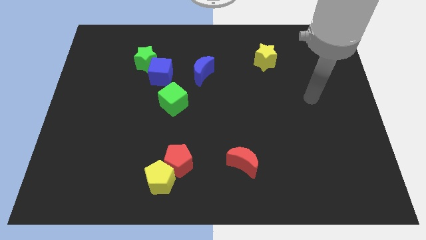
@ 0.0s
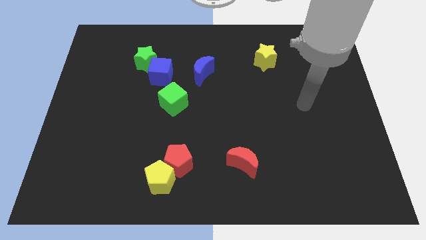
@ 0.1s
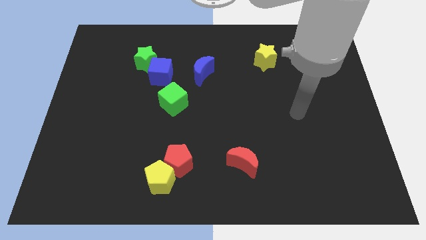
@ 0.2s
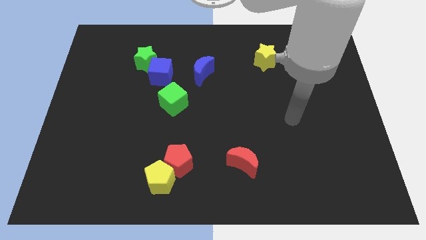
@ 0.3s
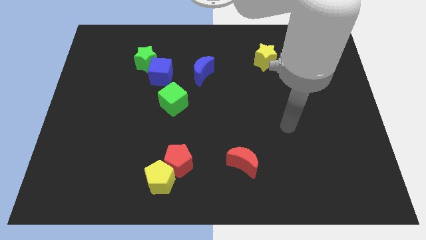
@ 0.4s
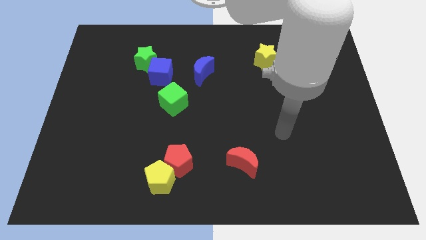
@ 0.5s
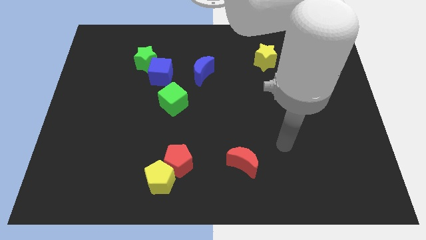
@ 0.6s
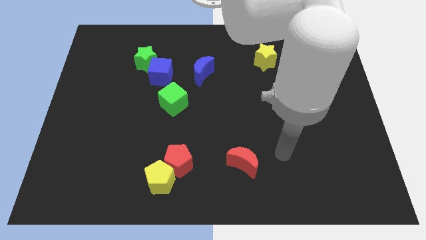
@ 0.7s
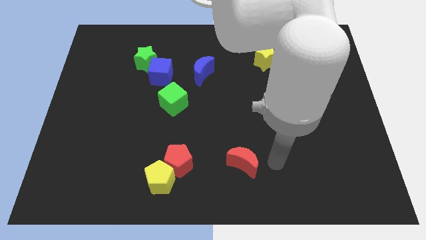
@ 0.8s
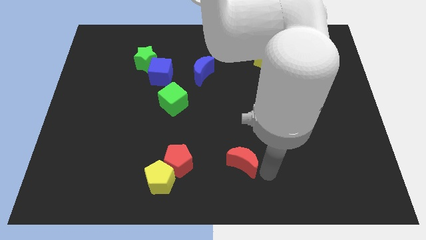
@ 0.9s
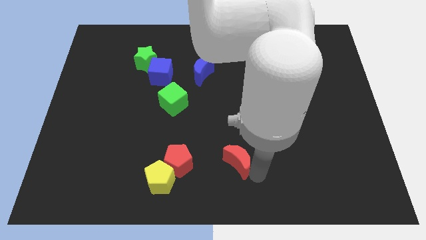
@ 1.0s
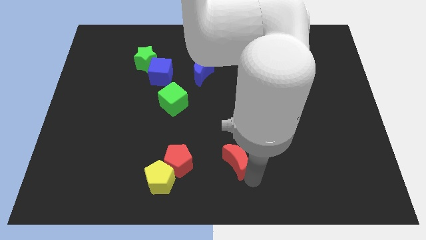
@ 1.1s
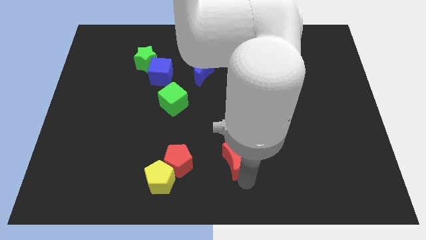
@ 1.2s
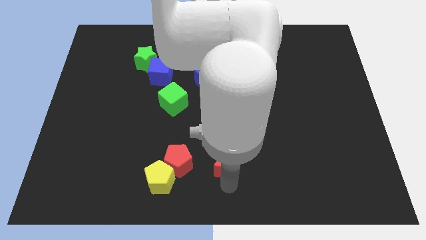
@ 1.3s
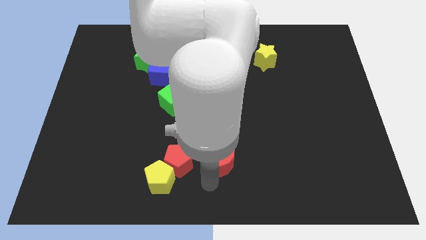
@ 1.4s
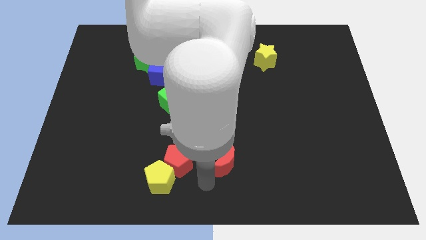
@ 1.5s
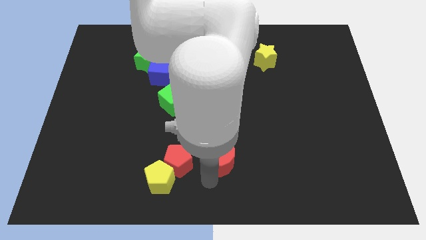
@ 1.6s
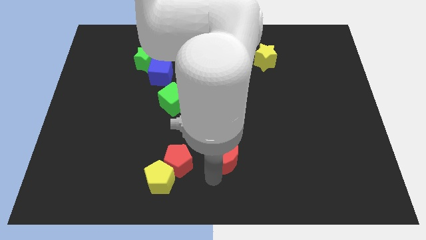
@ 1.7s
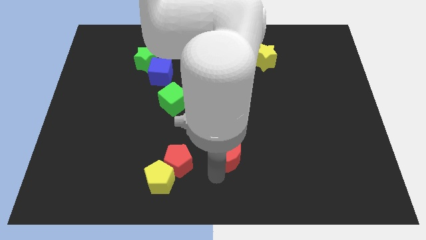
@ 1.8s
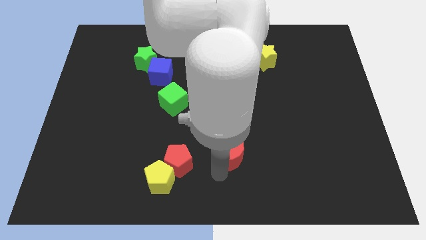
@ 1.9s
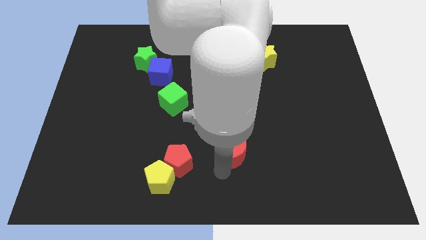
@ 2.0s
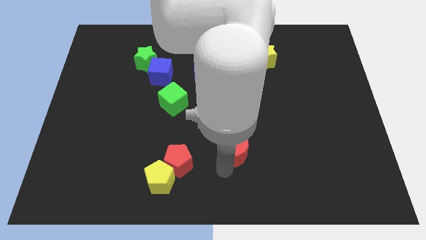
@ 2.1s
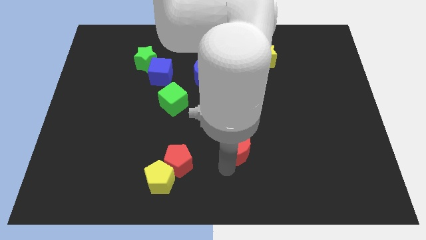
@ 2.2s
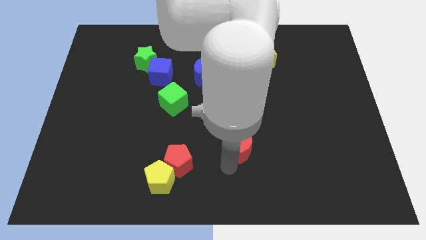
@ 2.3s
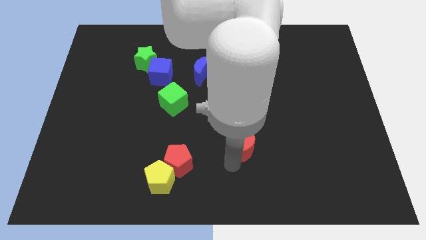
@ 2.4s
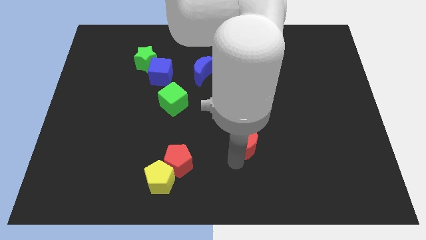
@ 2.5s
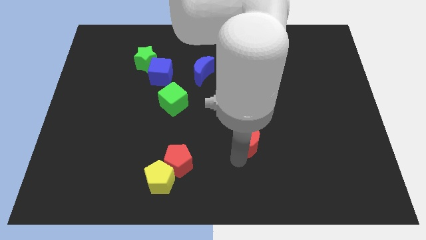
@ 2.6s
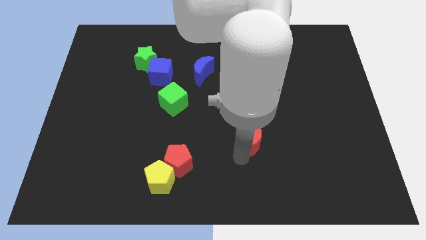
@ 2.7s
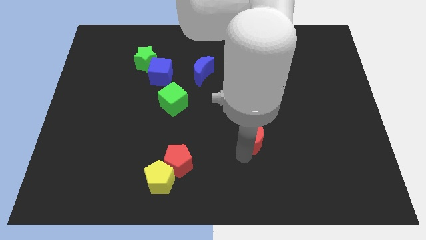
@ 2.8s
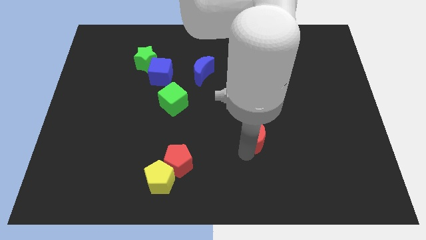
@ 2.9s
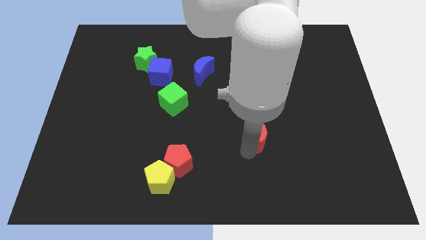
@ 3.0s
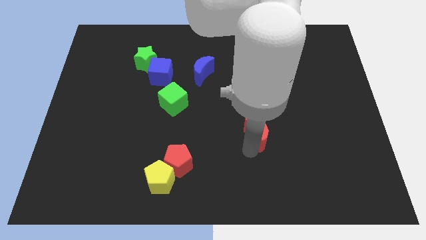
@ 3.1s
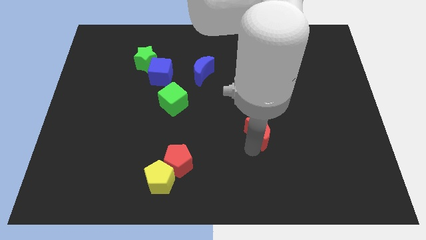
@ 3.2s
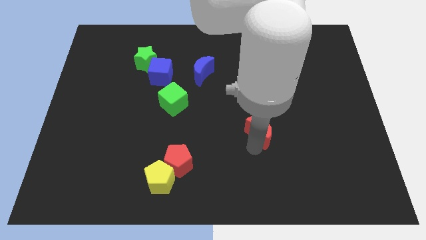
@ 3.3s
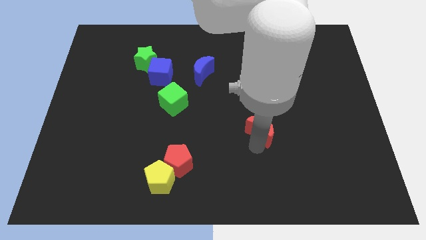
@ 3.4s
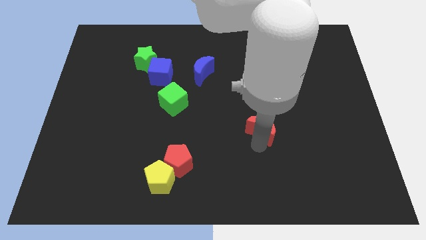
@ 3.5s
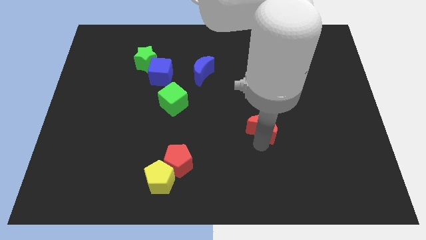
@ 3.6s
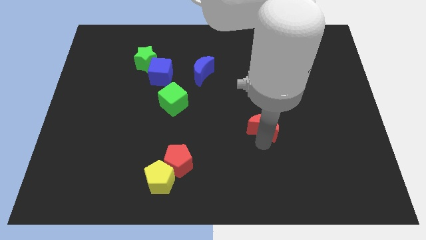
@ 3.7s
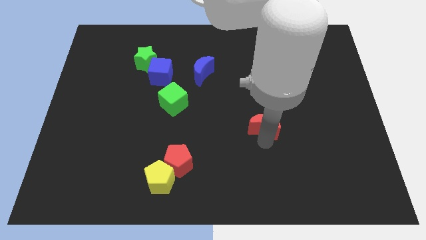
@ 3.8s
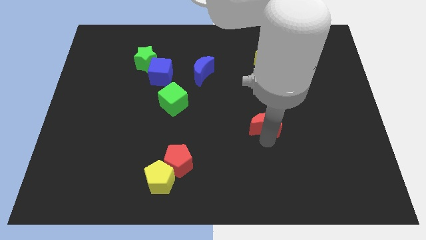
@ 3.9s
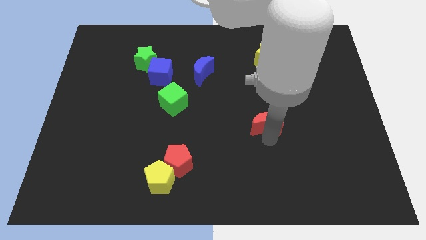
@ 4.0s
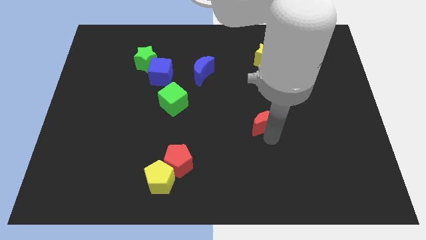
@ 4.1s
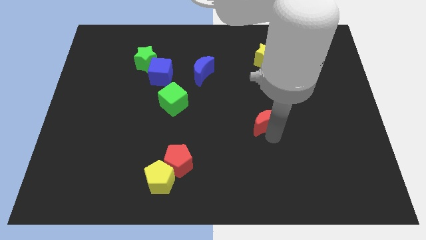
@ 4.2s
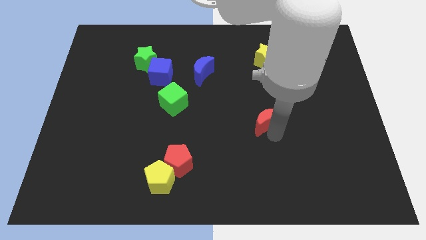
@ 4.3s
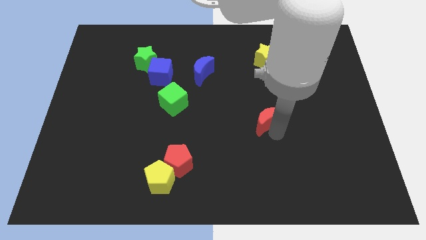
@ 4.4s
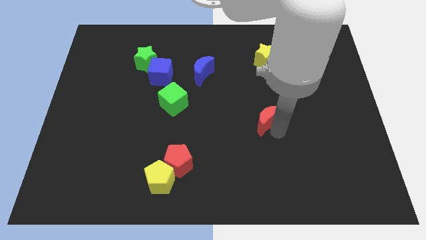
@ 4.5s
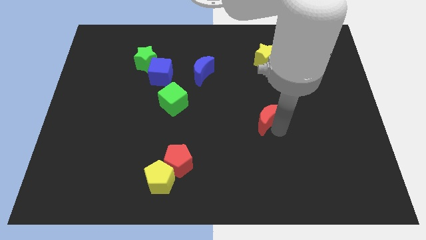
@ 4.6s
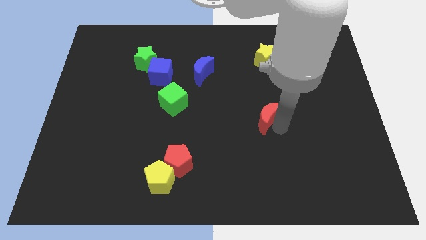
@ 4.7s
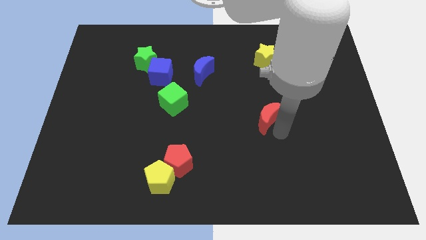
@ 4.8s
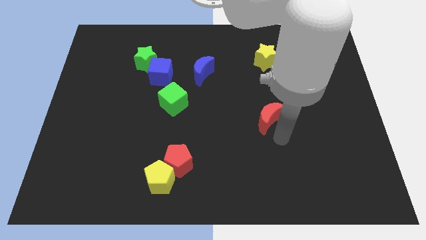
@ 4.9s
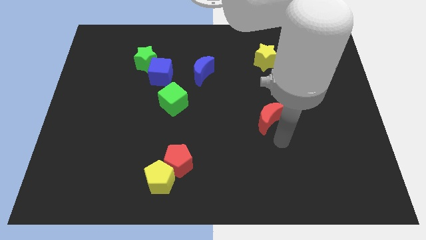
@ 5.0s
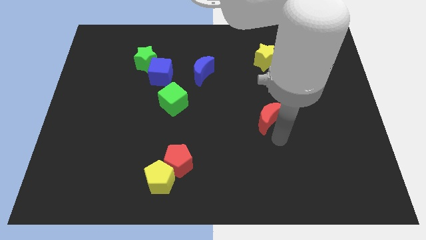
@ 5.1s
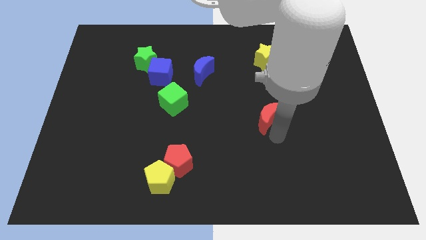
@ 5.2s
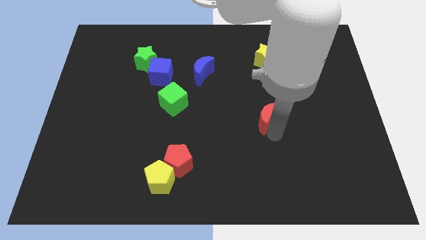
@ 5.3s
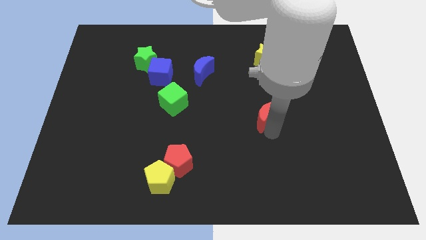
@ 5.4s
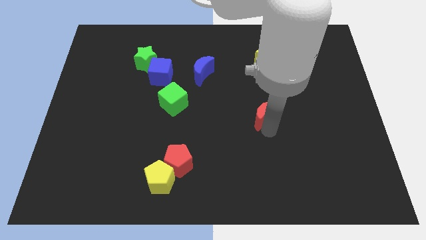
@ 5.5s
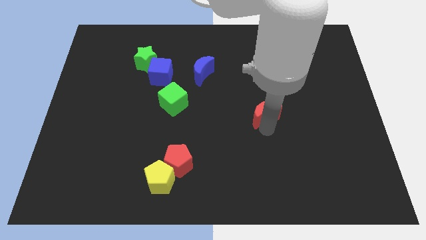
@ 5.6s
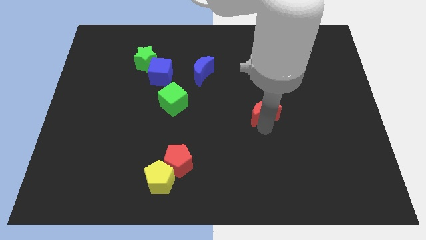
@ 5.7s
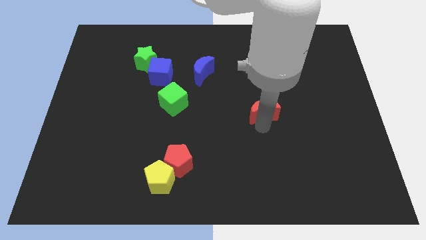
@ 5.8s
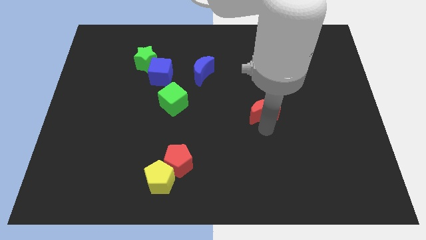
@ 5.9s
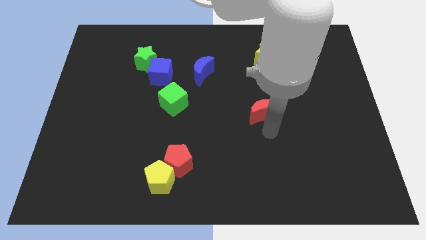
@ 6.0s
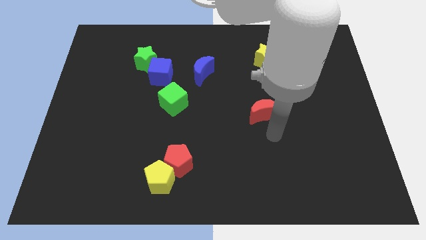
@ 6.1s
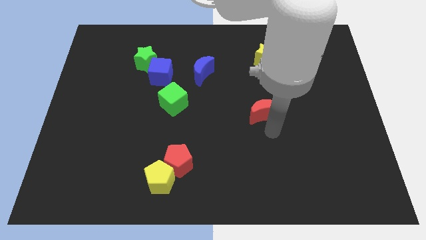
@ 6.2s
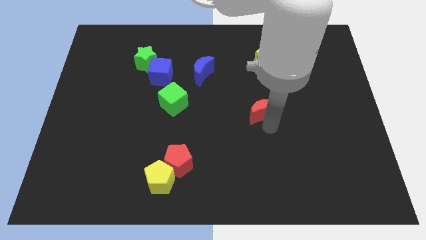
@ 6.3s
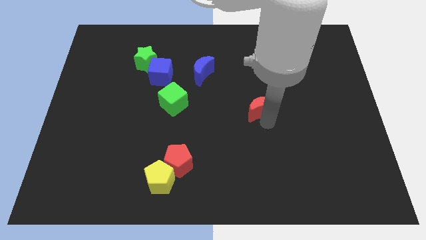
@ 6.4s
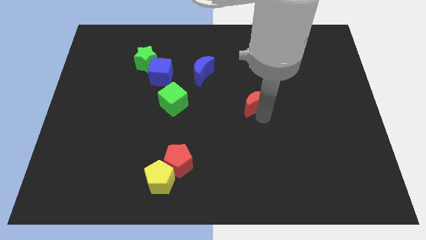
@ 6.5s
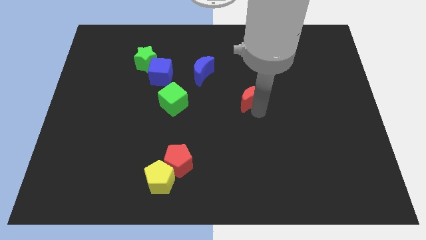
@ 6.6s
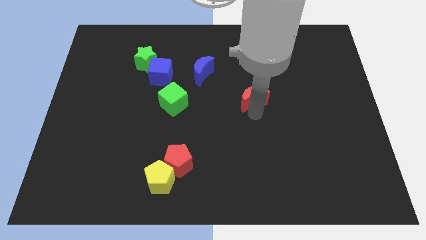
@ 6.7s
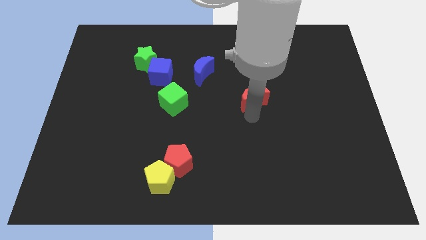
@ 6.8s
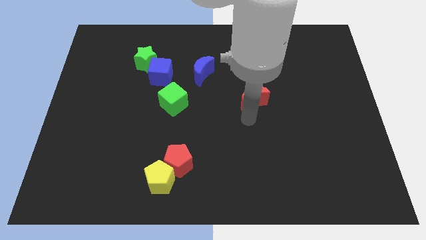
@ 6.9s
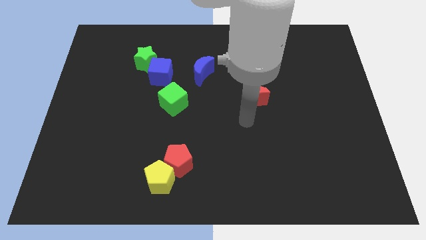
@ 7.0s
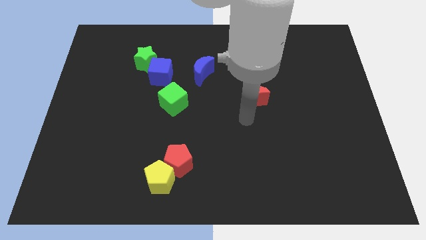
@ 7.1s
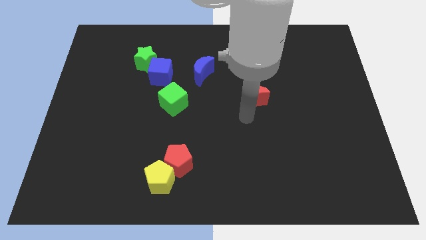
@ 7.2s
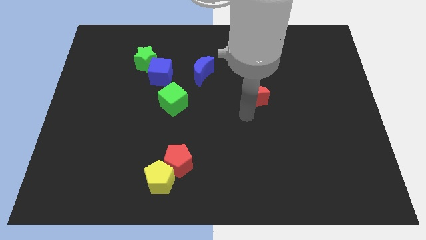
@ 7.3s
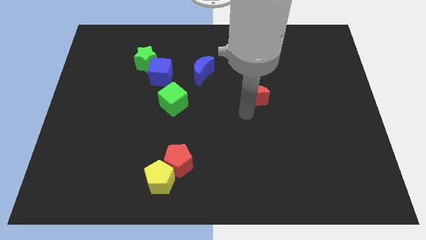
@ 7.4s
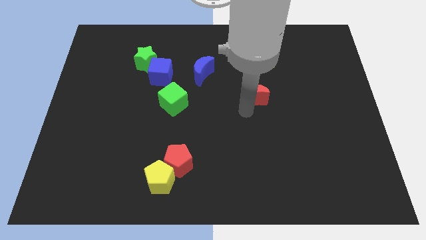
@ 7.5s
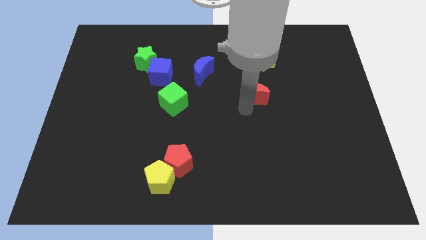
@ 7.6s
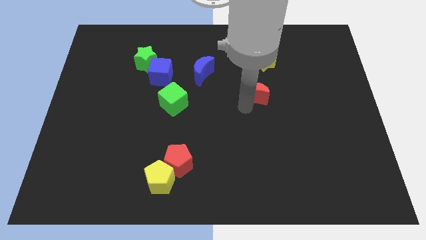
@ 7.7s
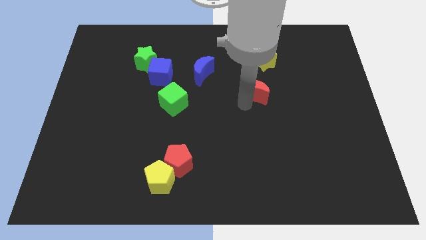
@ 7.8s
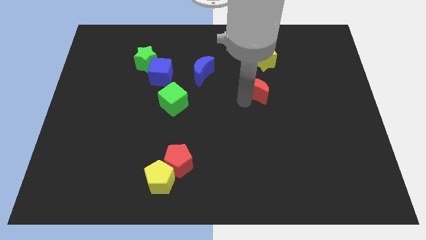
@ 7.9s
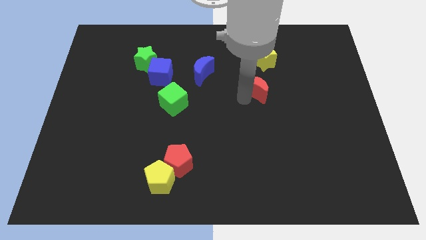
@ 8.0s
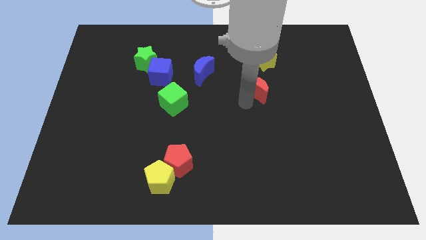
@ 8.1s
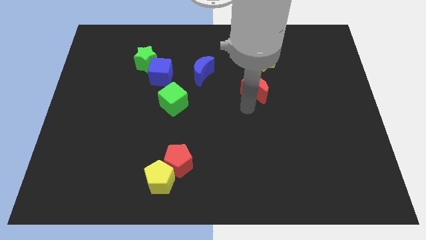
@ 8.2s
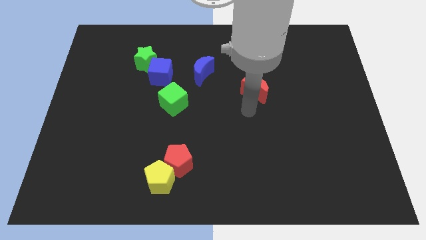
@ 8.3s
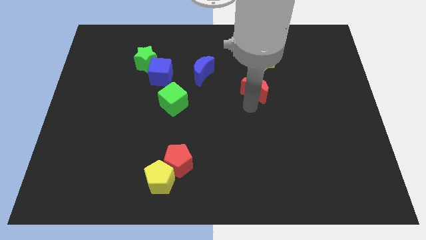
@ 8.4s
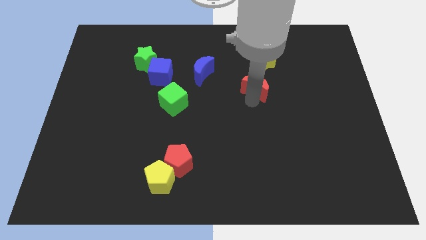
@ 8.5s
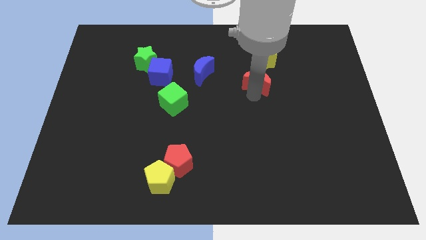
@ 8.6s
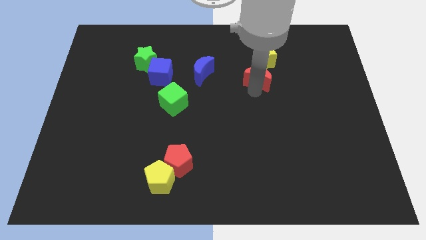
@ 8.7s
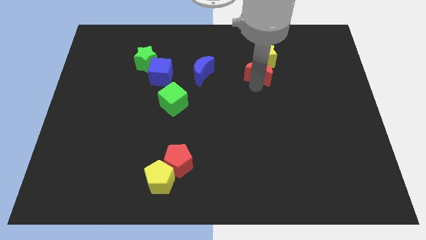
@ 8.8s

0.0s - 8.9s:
move the red moon towards the yellow star
